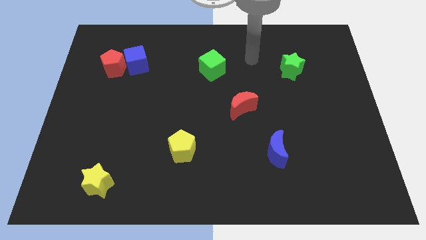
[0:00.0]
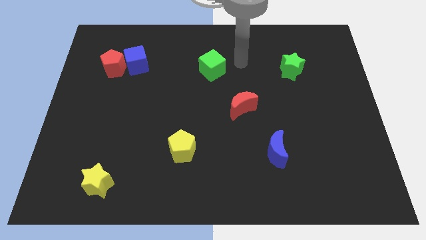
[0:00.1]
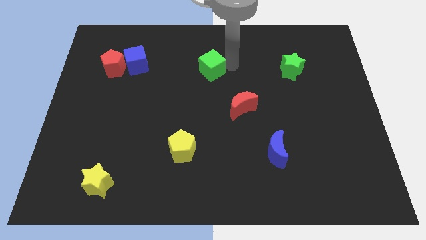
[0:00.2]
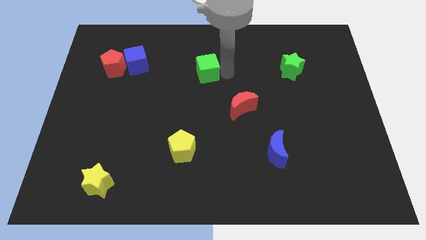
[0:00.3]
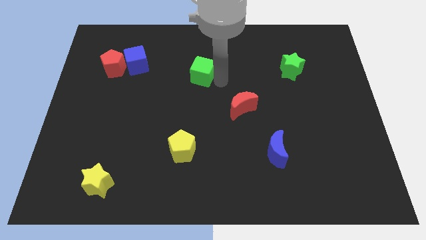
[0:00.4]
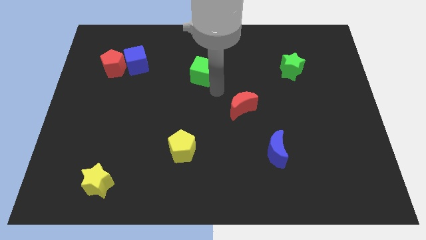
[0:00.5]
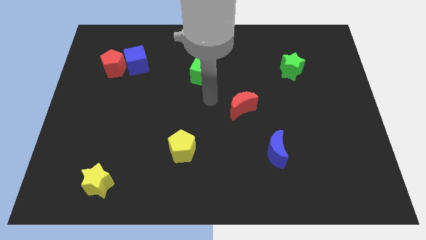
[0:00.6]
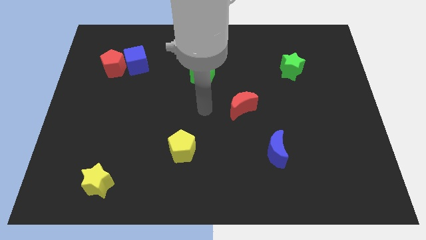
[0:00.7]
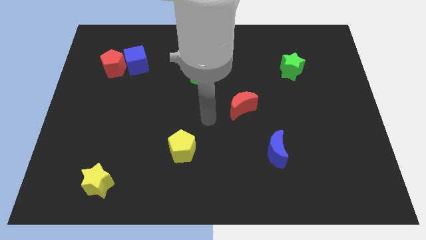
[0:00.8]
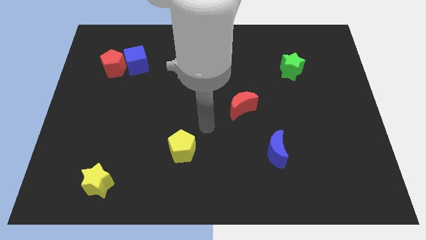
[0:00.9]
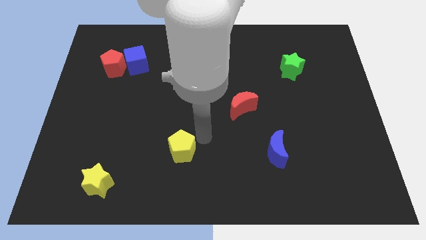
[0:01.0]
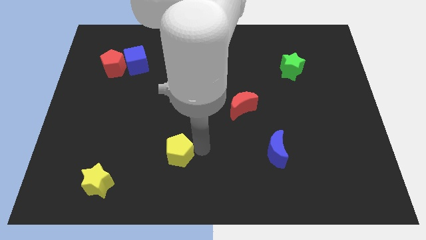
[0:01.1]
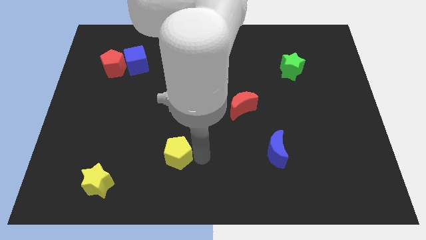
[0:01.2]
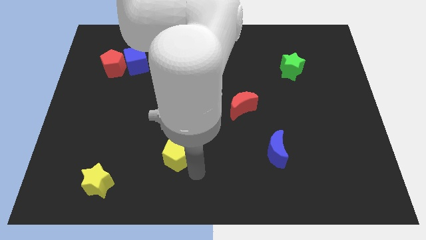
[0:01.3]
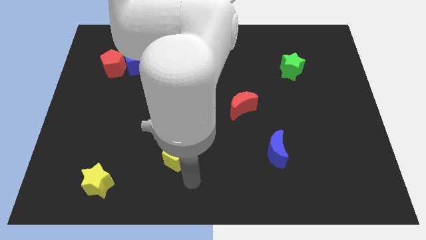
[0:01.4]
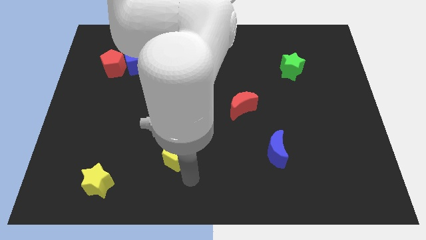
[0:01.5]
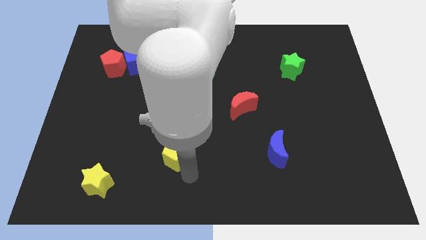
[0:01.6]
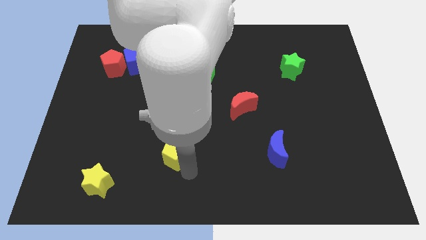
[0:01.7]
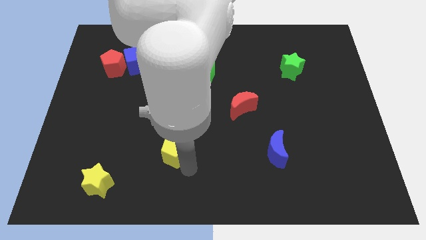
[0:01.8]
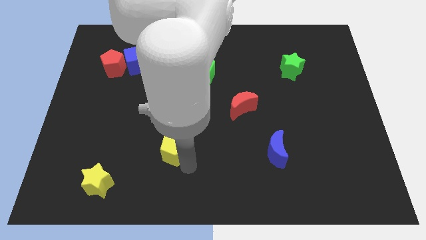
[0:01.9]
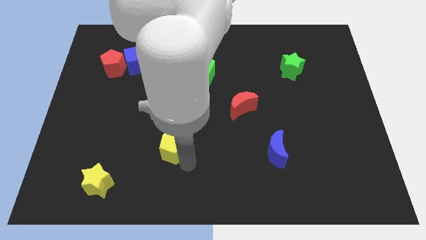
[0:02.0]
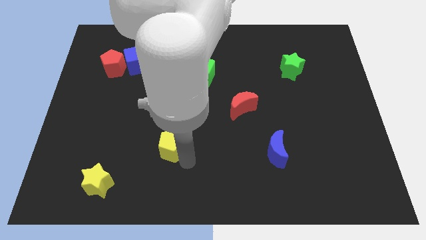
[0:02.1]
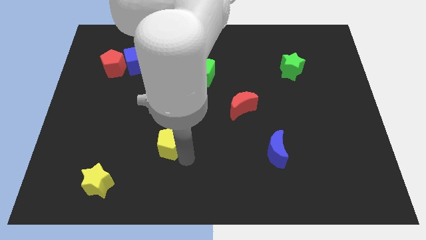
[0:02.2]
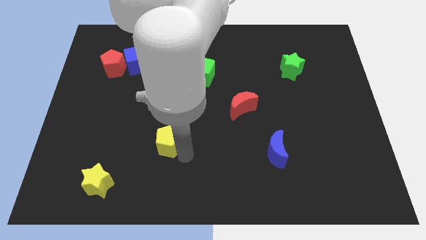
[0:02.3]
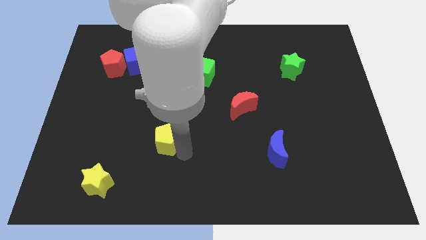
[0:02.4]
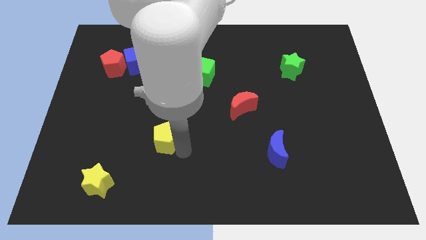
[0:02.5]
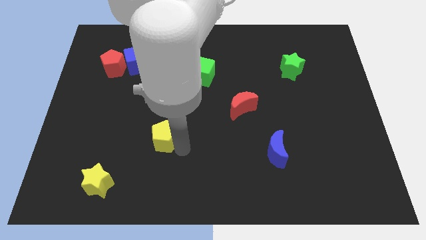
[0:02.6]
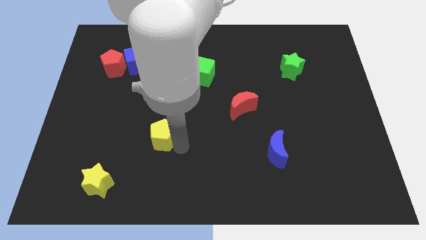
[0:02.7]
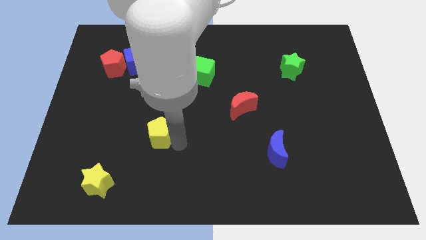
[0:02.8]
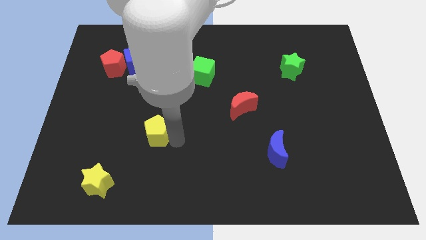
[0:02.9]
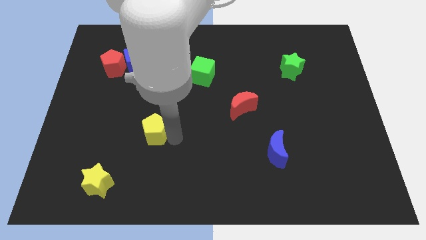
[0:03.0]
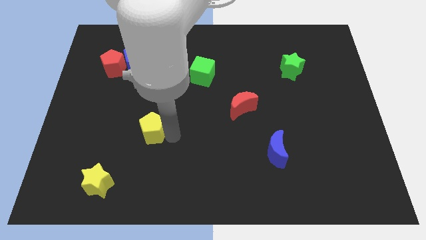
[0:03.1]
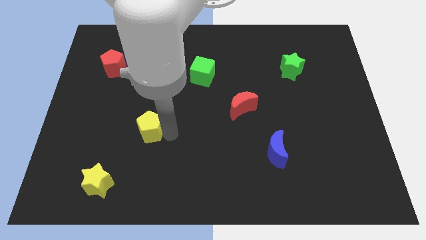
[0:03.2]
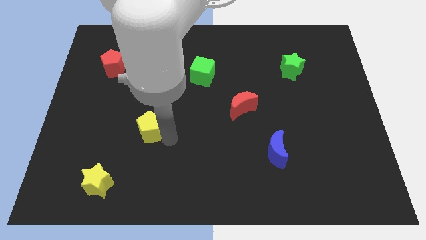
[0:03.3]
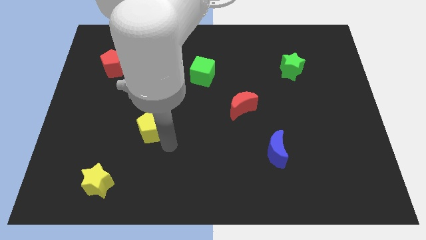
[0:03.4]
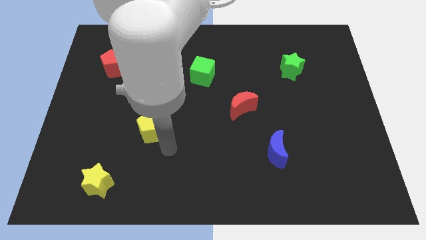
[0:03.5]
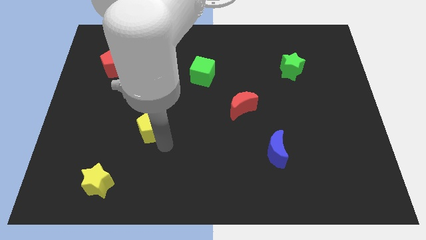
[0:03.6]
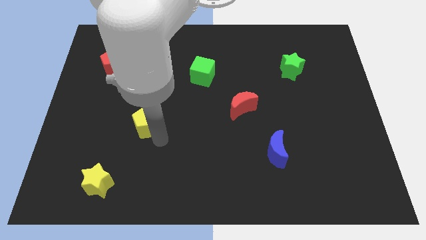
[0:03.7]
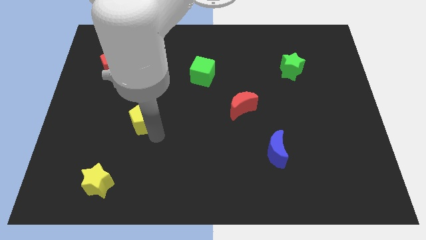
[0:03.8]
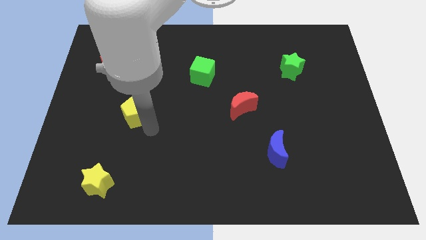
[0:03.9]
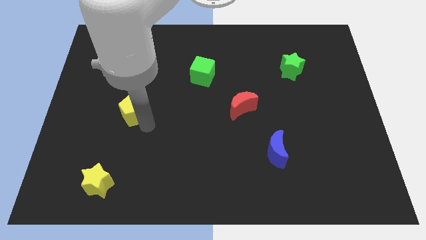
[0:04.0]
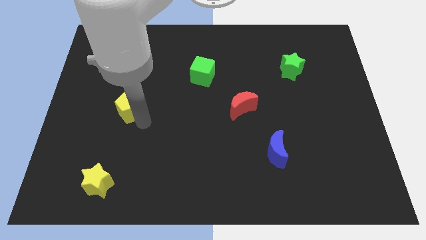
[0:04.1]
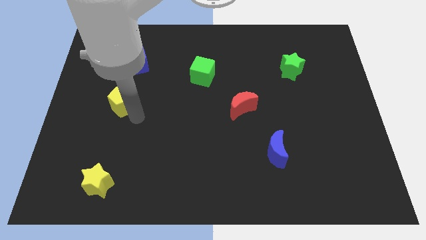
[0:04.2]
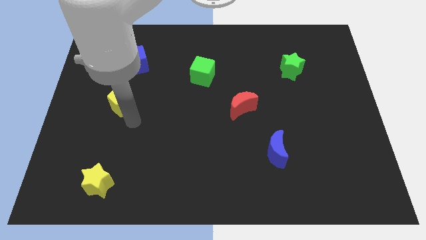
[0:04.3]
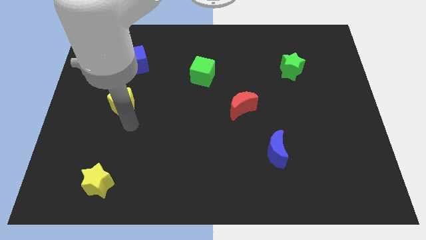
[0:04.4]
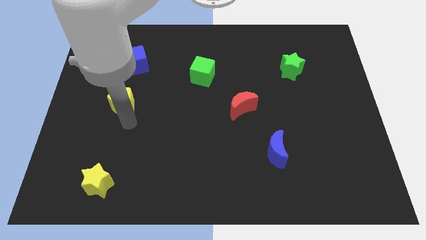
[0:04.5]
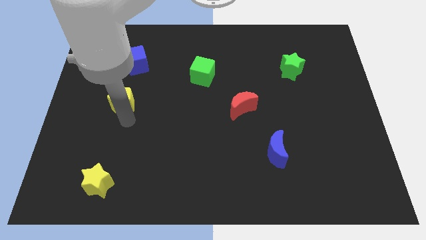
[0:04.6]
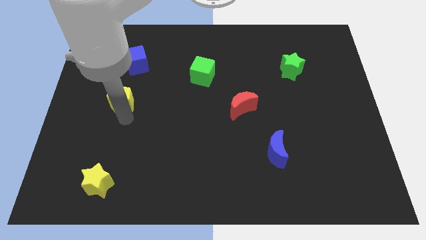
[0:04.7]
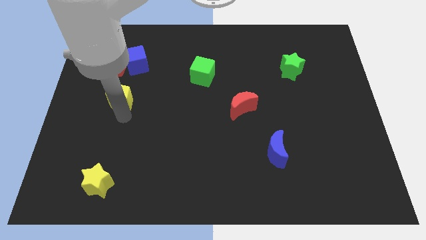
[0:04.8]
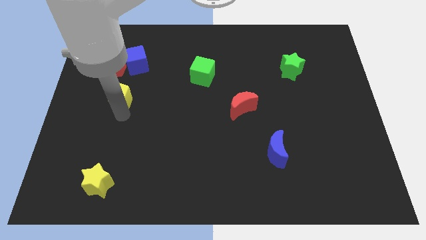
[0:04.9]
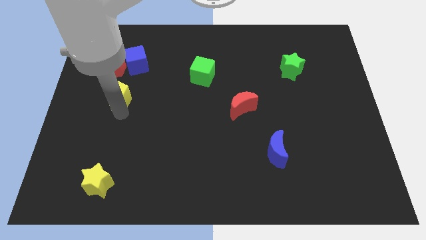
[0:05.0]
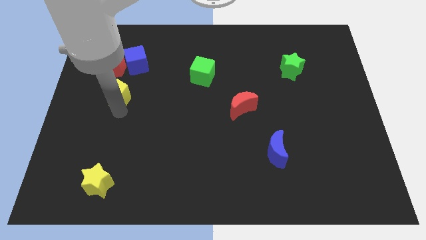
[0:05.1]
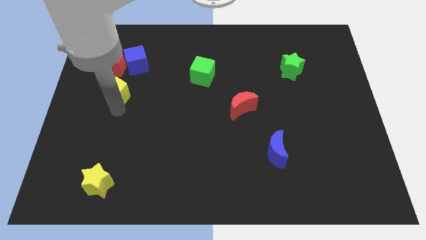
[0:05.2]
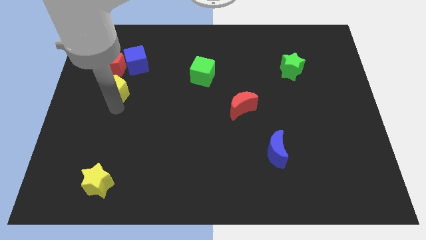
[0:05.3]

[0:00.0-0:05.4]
slide the yellow pentagon to the bottom left side of the blue cube

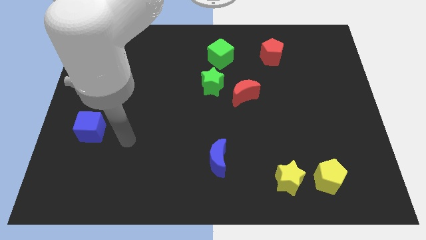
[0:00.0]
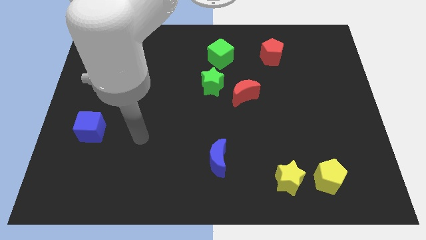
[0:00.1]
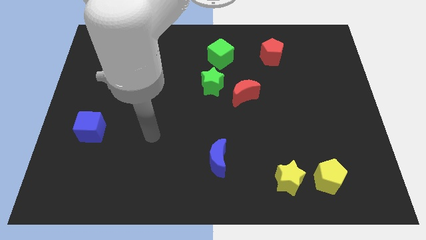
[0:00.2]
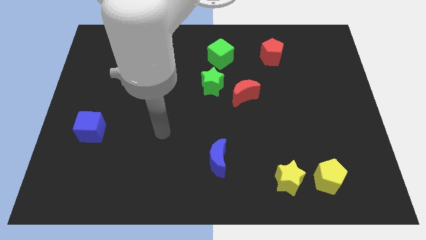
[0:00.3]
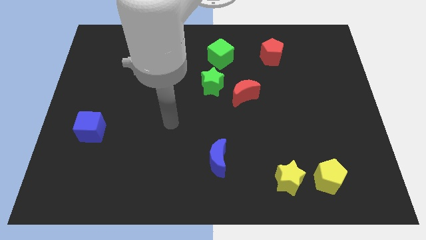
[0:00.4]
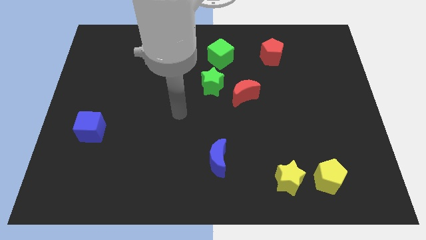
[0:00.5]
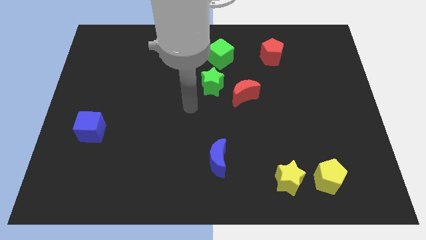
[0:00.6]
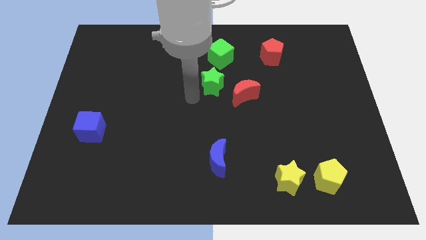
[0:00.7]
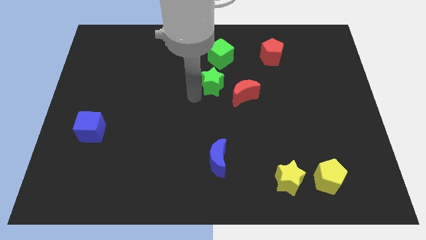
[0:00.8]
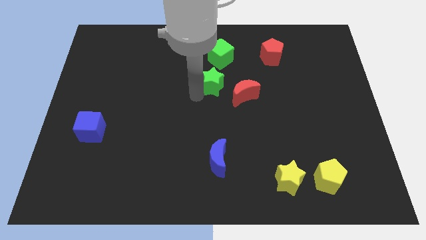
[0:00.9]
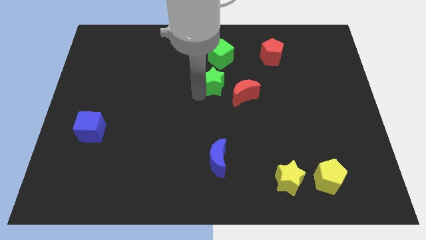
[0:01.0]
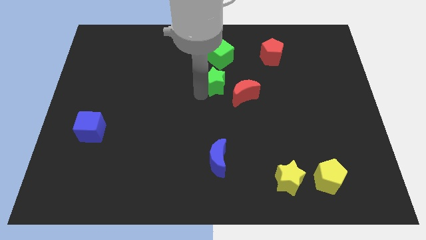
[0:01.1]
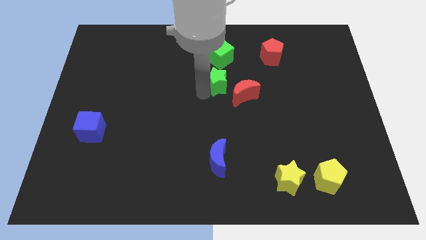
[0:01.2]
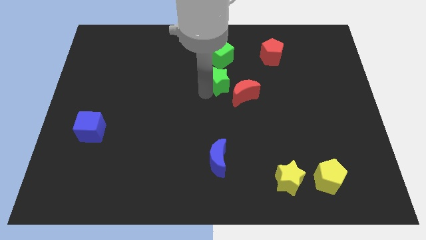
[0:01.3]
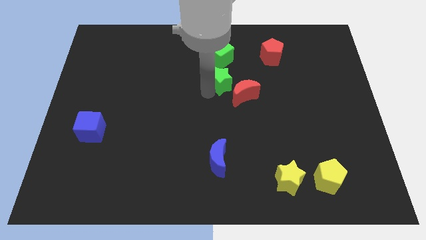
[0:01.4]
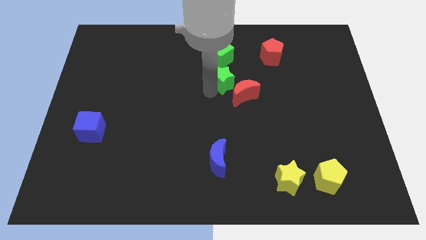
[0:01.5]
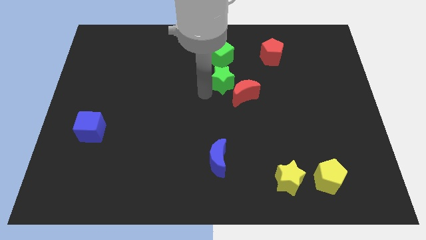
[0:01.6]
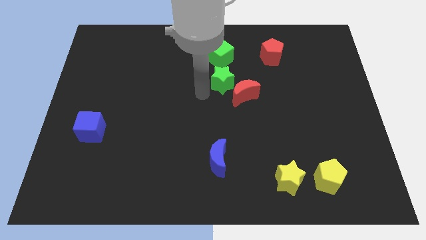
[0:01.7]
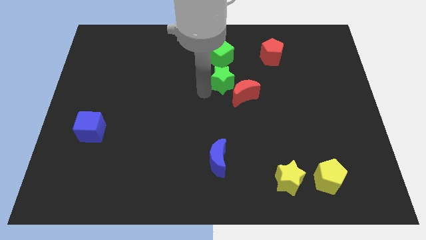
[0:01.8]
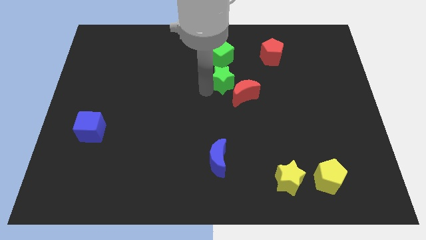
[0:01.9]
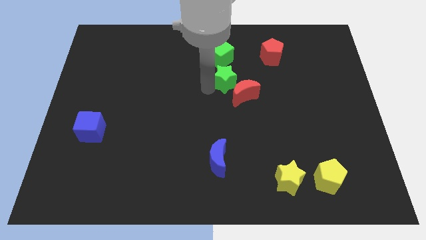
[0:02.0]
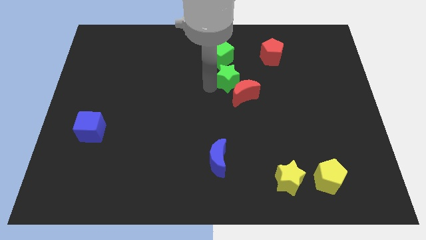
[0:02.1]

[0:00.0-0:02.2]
move the green star diagonally down and to the right of the green cube
